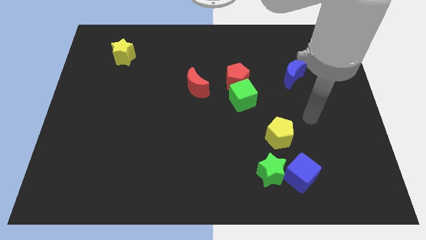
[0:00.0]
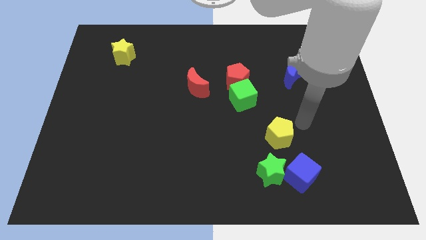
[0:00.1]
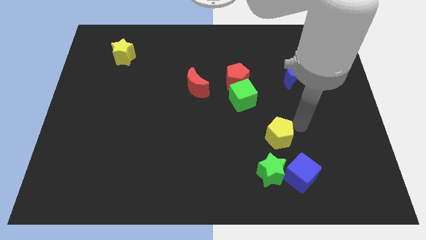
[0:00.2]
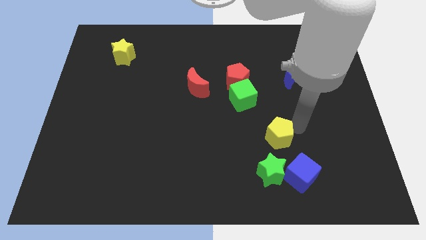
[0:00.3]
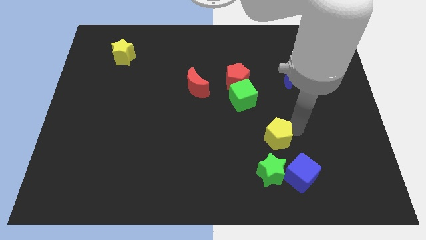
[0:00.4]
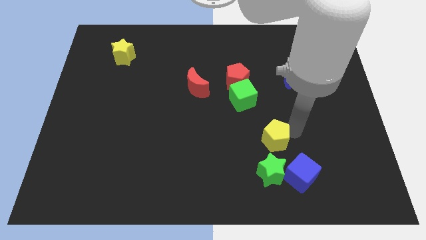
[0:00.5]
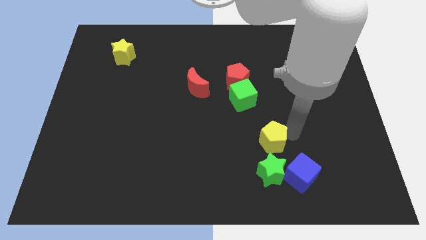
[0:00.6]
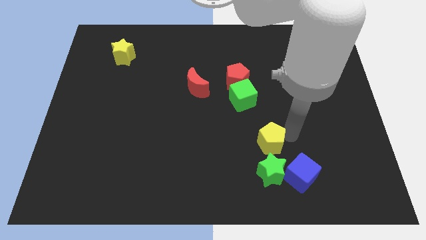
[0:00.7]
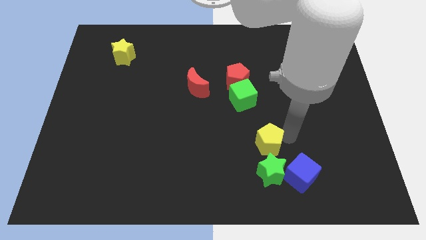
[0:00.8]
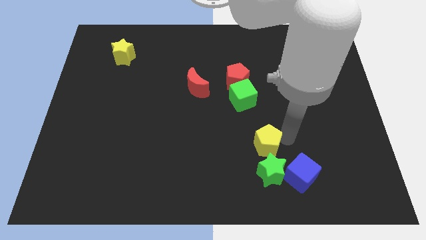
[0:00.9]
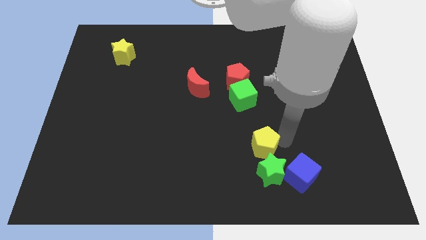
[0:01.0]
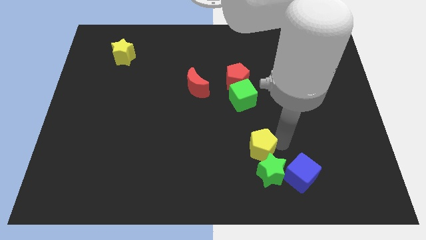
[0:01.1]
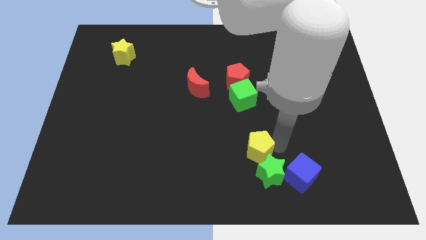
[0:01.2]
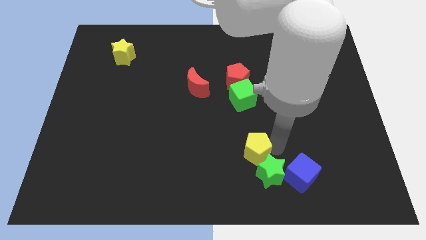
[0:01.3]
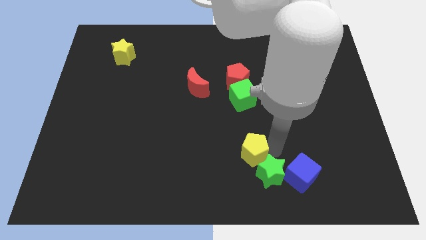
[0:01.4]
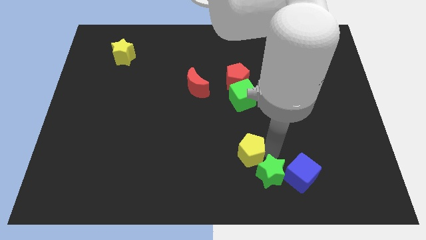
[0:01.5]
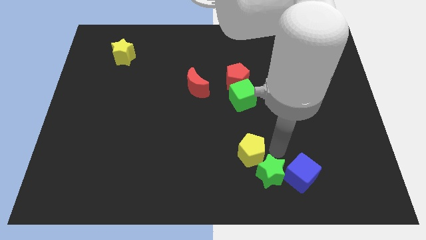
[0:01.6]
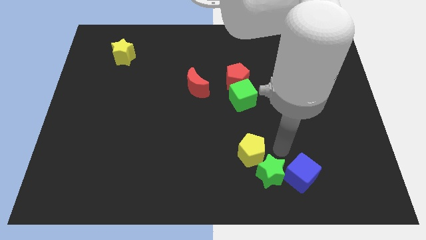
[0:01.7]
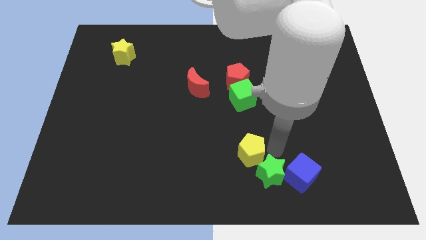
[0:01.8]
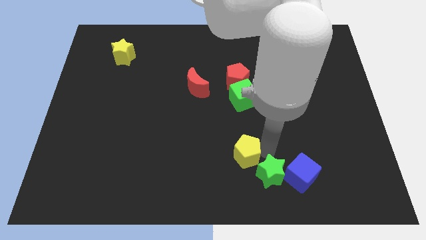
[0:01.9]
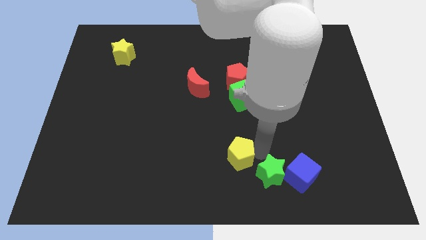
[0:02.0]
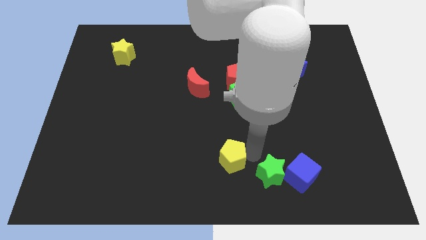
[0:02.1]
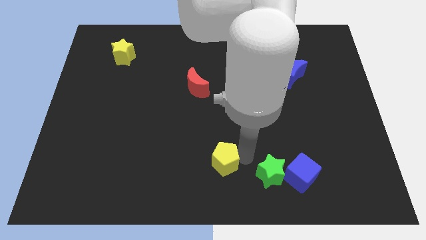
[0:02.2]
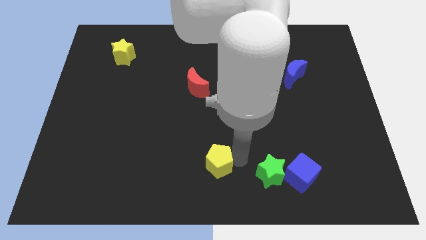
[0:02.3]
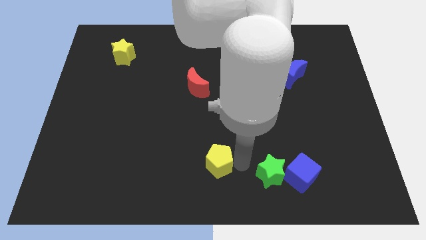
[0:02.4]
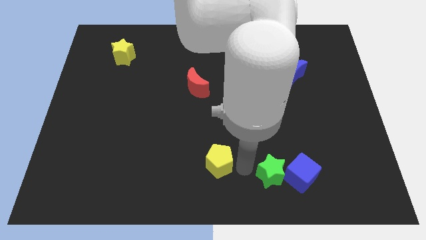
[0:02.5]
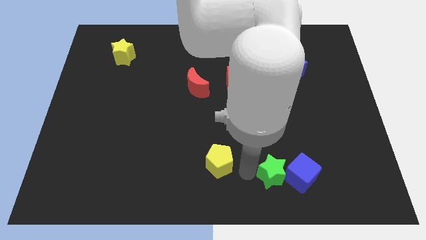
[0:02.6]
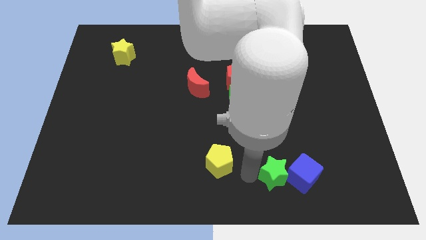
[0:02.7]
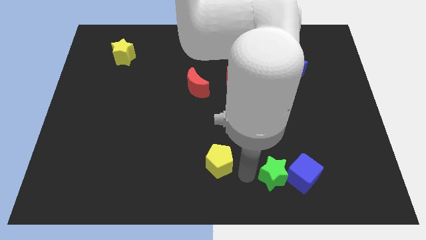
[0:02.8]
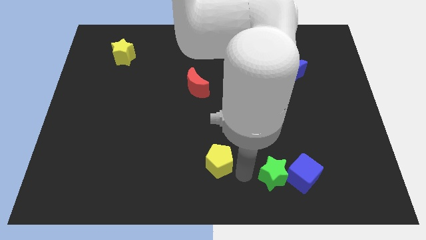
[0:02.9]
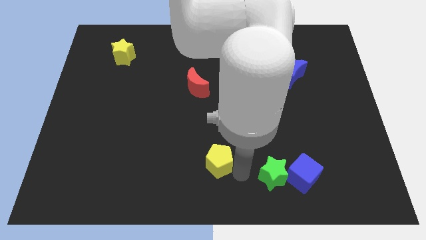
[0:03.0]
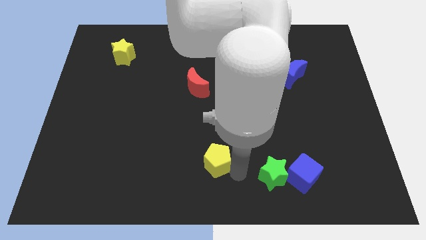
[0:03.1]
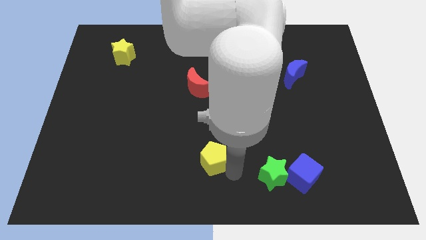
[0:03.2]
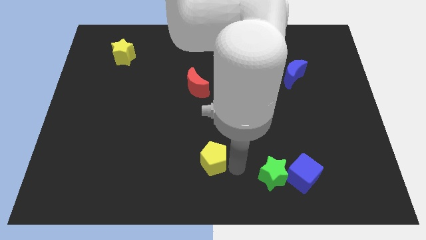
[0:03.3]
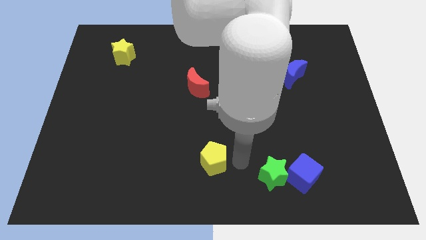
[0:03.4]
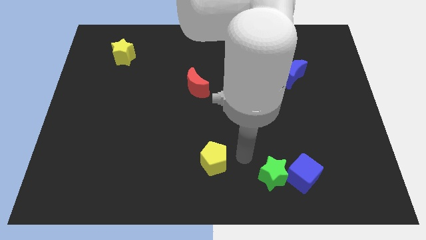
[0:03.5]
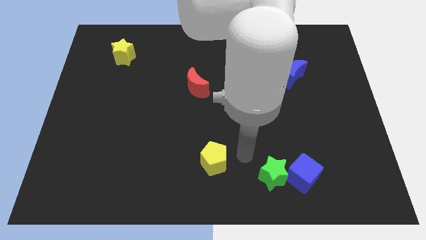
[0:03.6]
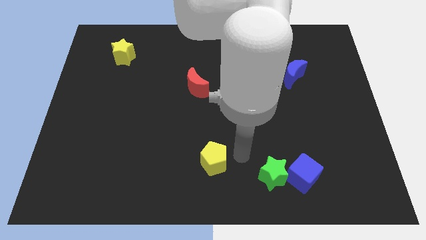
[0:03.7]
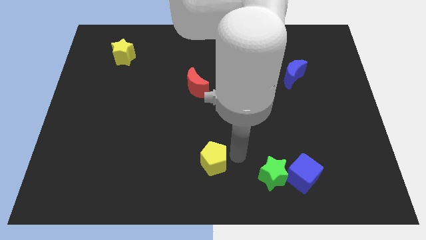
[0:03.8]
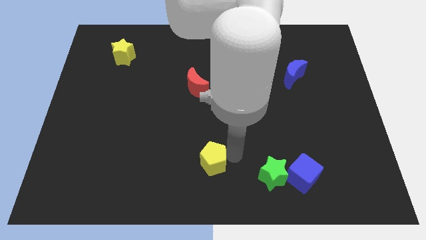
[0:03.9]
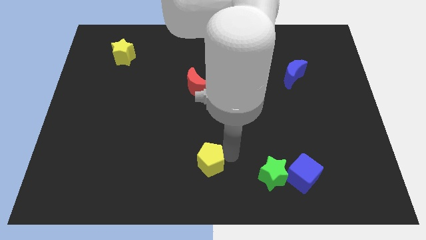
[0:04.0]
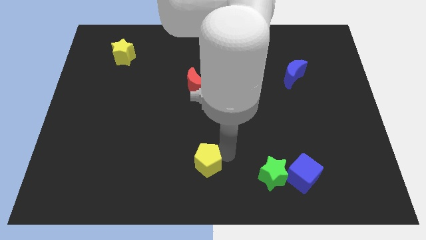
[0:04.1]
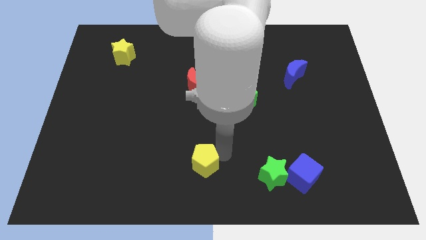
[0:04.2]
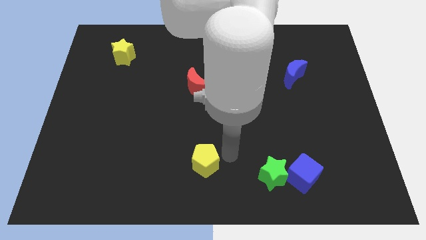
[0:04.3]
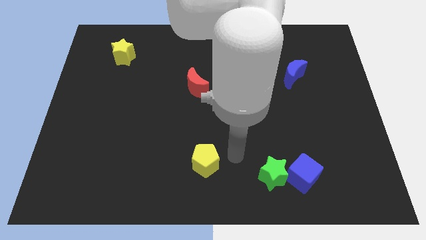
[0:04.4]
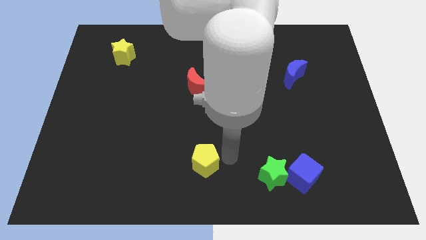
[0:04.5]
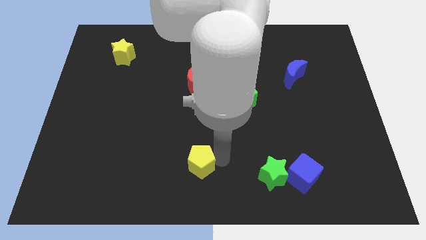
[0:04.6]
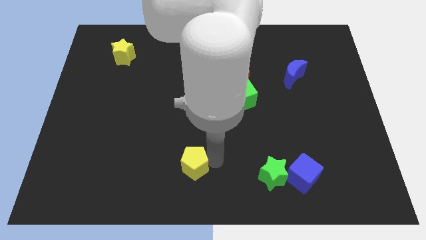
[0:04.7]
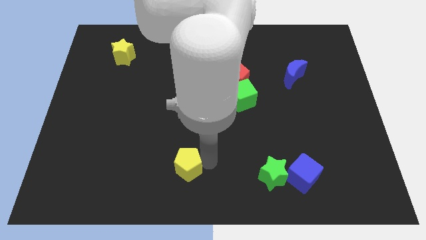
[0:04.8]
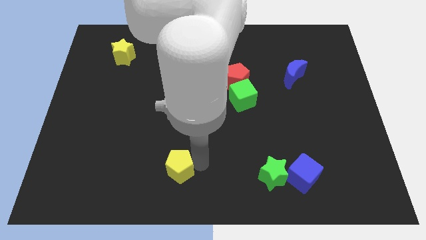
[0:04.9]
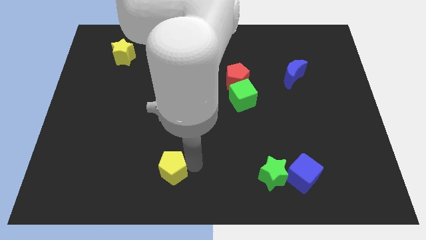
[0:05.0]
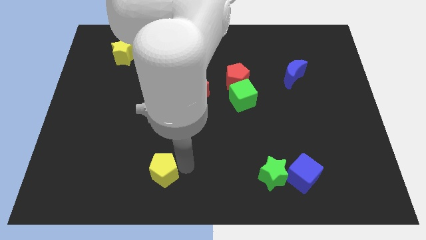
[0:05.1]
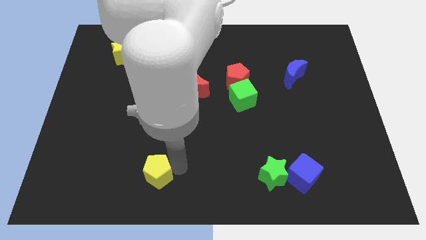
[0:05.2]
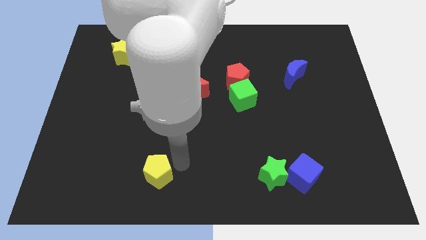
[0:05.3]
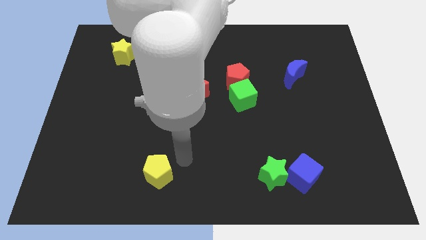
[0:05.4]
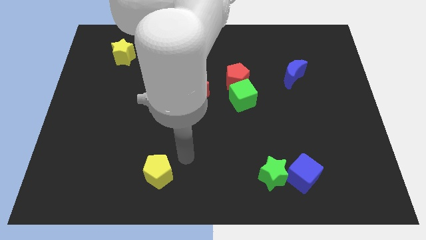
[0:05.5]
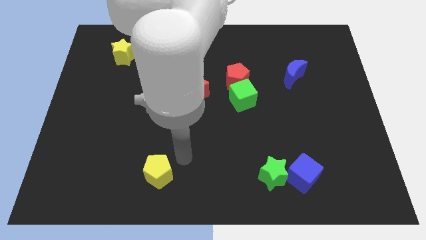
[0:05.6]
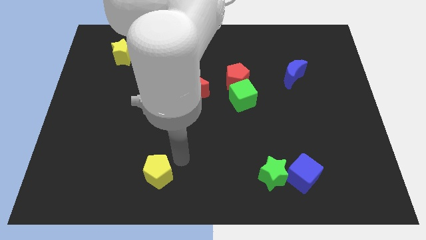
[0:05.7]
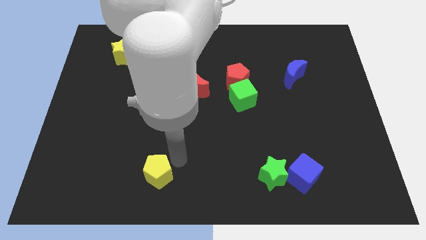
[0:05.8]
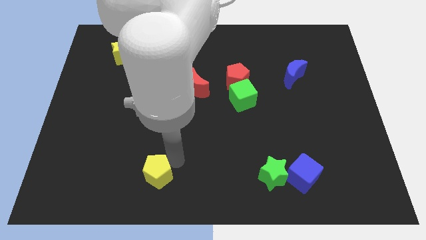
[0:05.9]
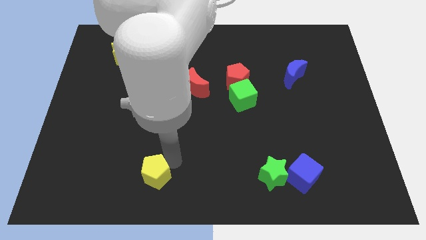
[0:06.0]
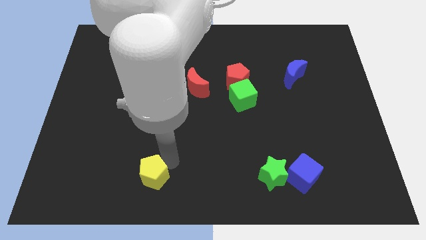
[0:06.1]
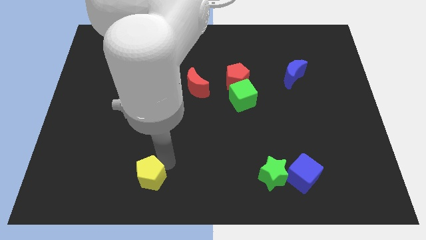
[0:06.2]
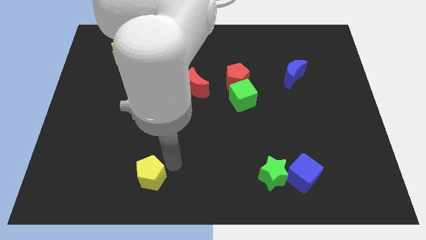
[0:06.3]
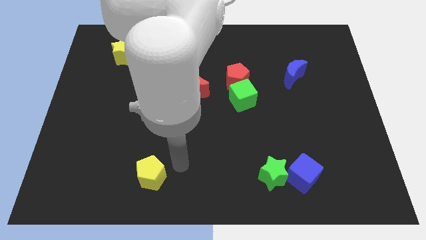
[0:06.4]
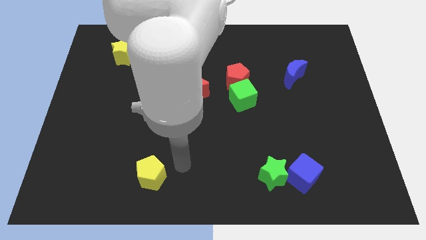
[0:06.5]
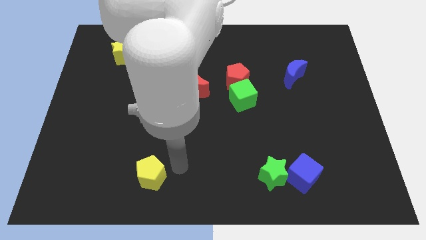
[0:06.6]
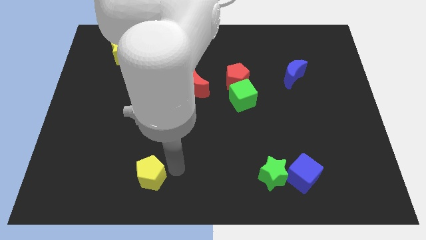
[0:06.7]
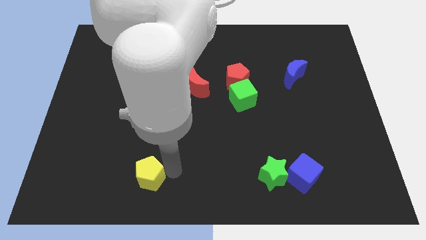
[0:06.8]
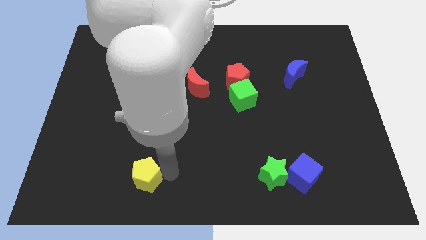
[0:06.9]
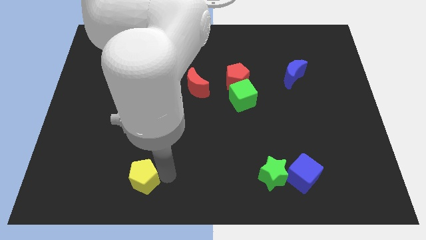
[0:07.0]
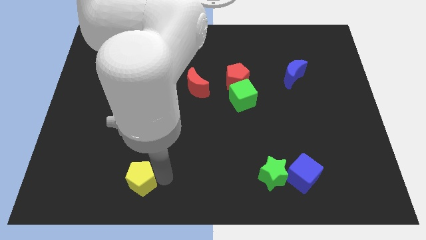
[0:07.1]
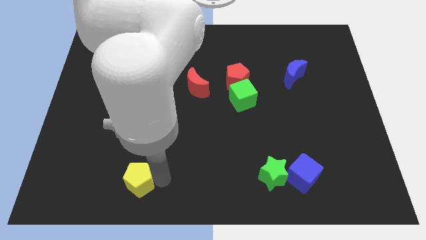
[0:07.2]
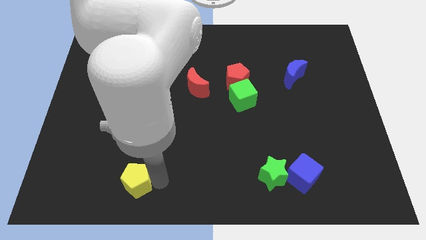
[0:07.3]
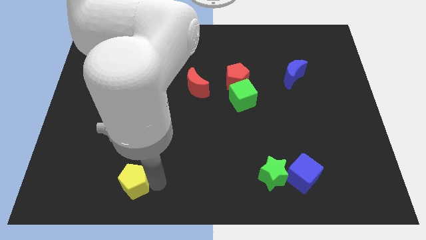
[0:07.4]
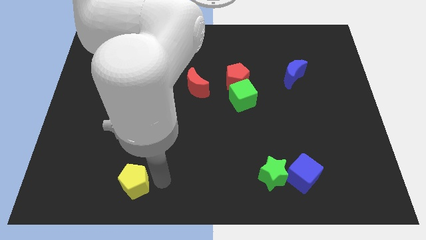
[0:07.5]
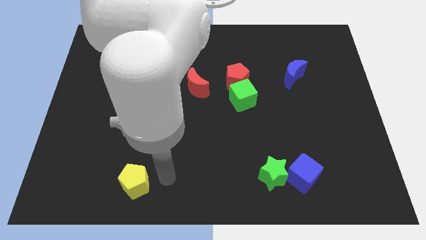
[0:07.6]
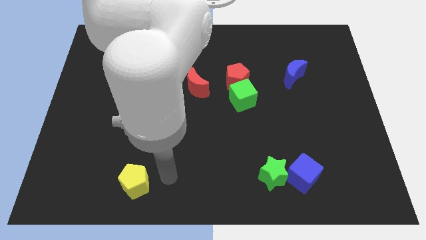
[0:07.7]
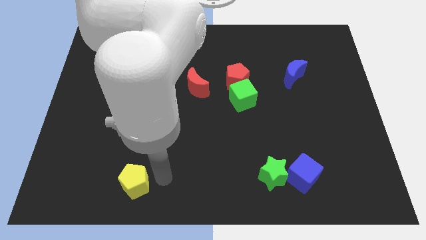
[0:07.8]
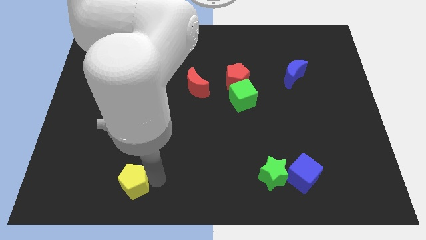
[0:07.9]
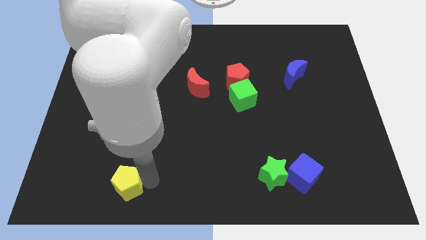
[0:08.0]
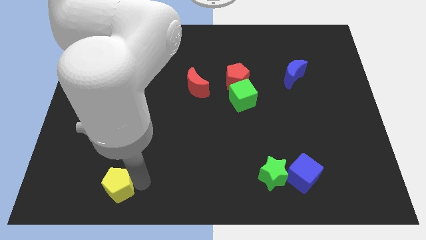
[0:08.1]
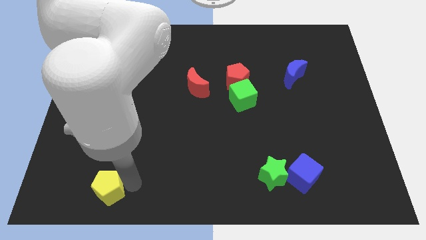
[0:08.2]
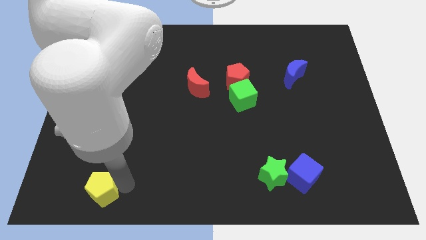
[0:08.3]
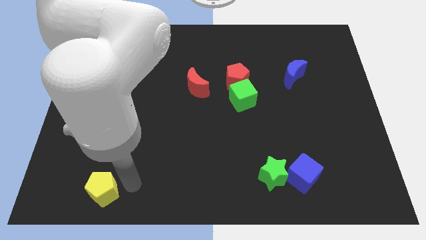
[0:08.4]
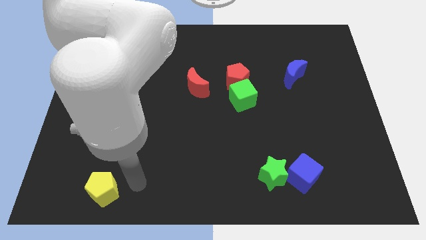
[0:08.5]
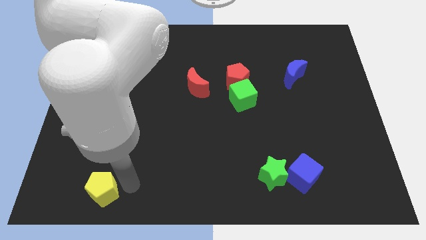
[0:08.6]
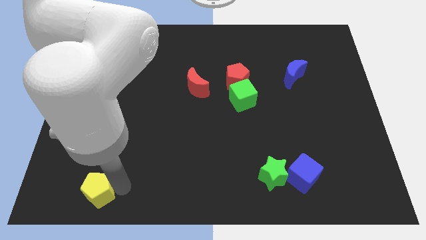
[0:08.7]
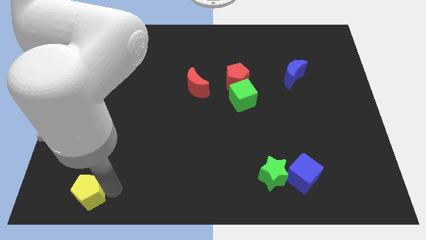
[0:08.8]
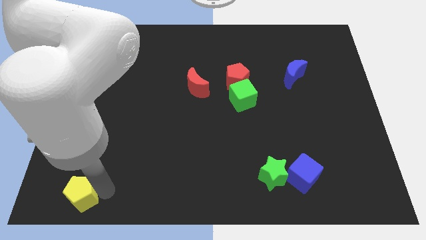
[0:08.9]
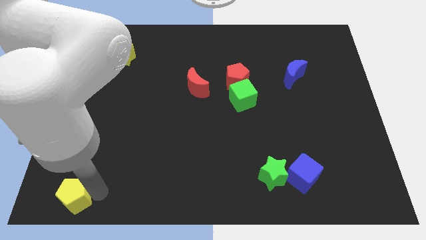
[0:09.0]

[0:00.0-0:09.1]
slide the yellow pentagon to the bottom left corner
